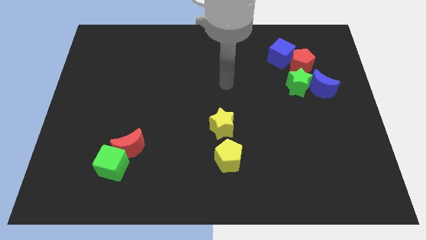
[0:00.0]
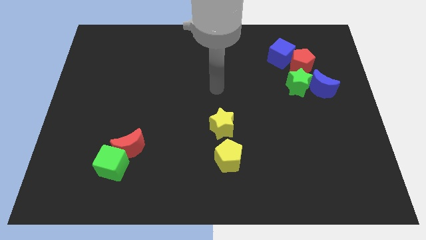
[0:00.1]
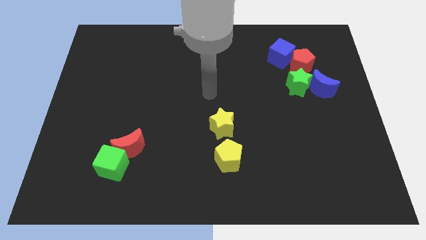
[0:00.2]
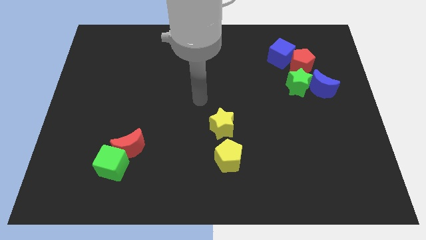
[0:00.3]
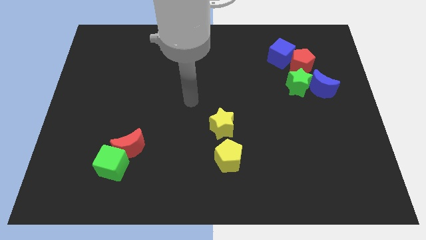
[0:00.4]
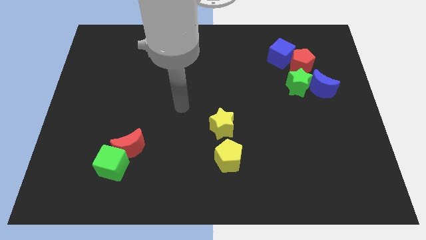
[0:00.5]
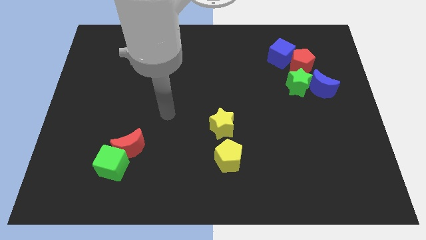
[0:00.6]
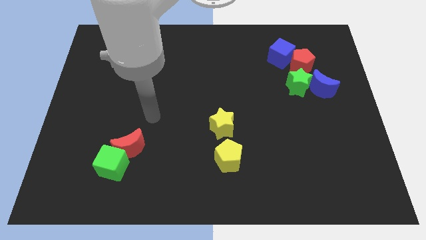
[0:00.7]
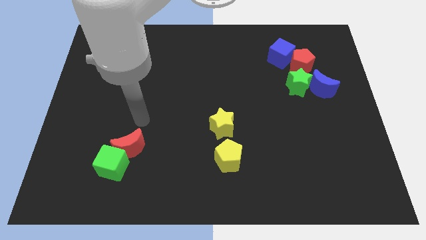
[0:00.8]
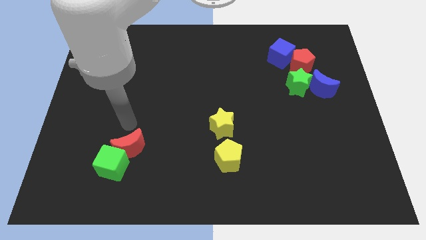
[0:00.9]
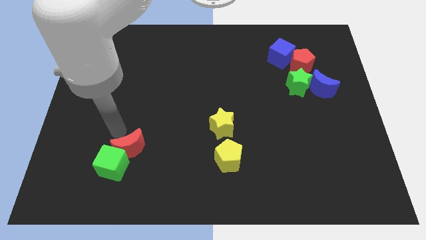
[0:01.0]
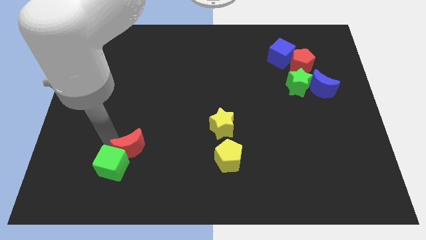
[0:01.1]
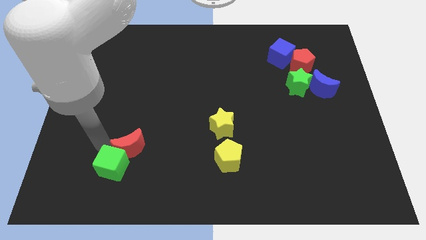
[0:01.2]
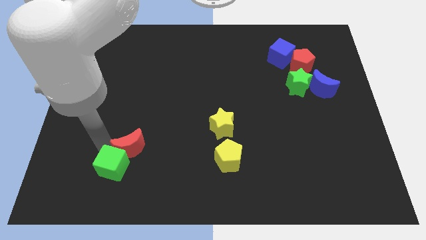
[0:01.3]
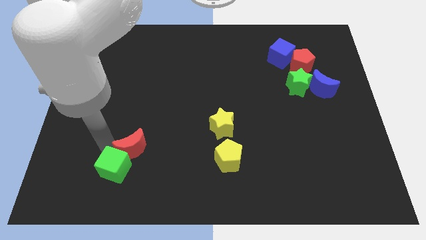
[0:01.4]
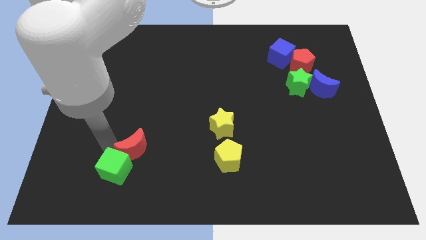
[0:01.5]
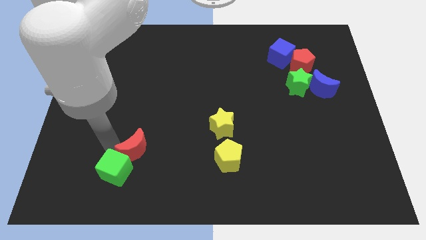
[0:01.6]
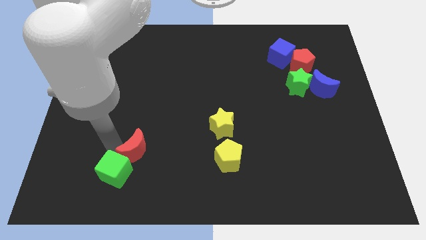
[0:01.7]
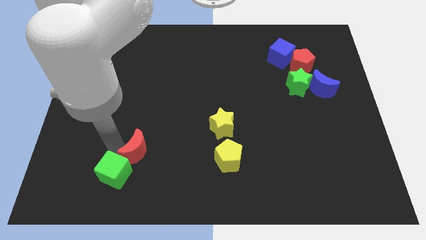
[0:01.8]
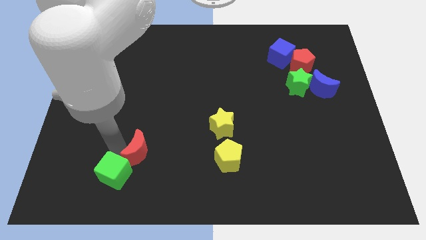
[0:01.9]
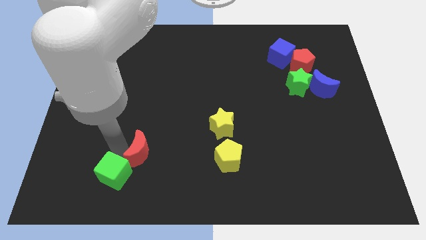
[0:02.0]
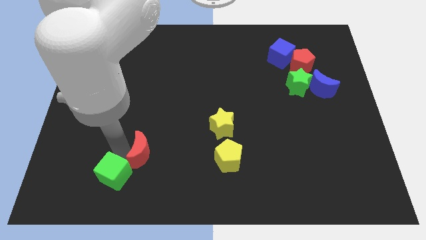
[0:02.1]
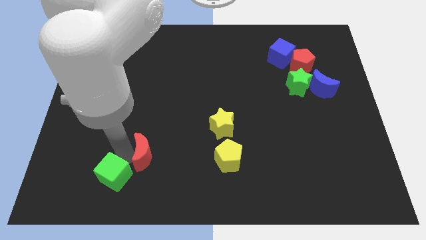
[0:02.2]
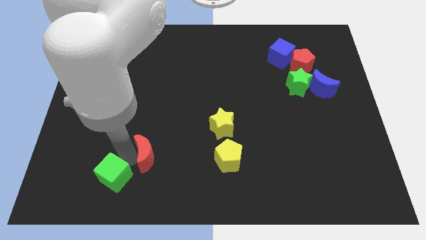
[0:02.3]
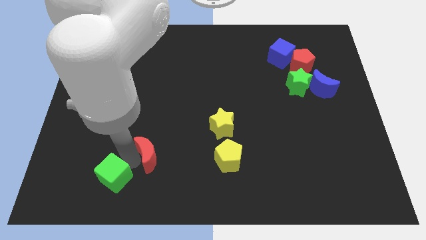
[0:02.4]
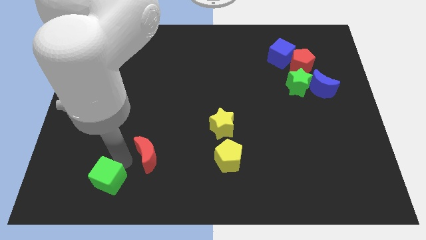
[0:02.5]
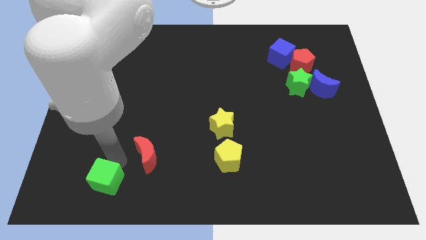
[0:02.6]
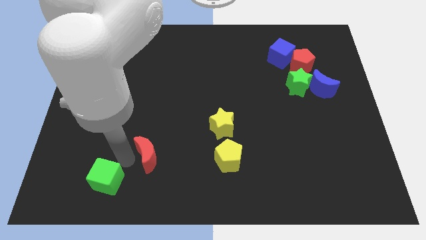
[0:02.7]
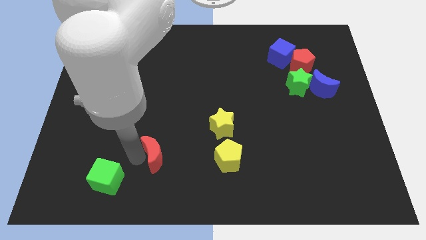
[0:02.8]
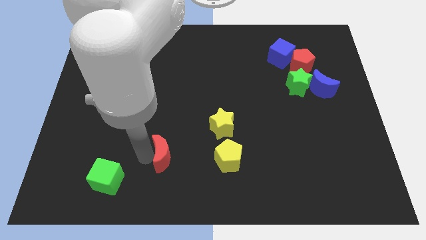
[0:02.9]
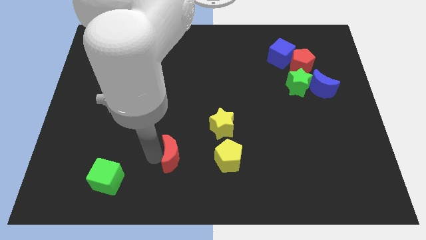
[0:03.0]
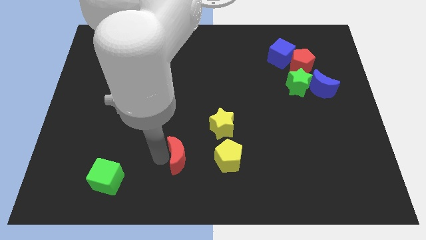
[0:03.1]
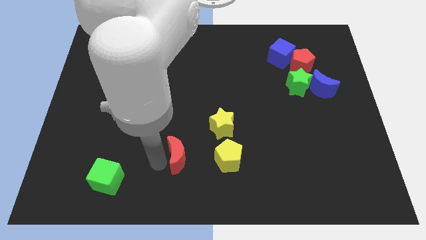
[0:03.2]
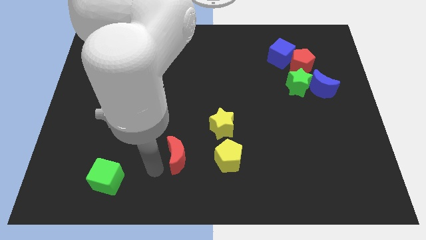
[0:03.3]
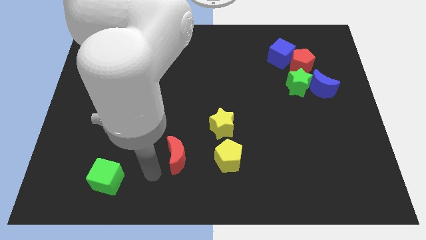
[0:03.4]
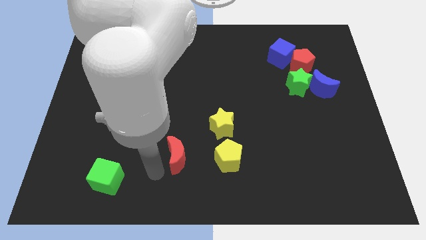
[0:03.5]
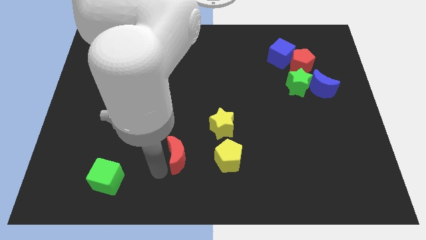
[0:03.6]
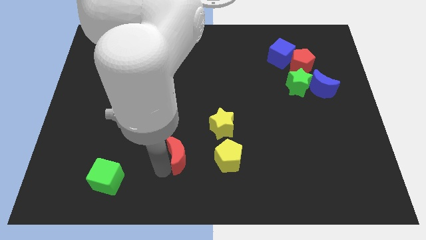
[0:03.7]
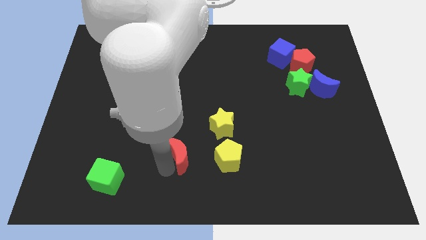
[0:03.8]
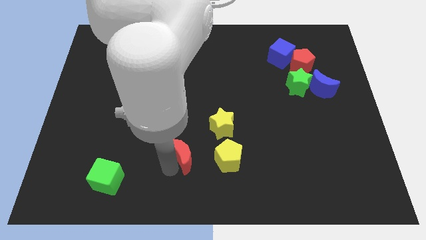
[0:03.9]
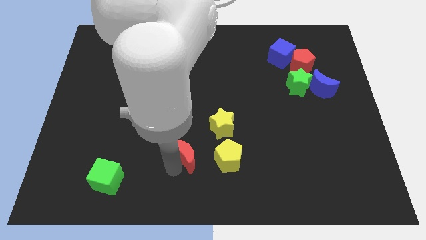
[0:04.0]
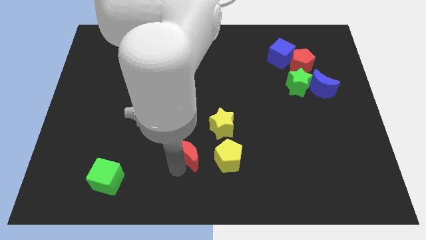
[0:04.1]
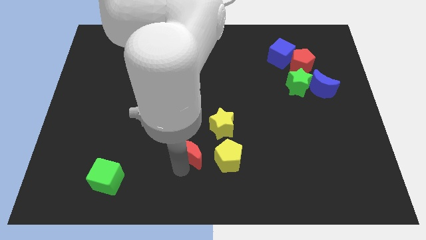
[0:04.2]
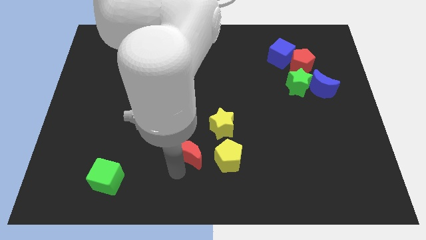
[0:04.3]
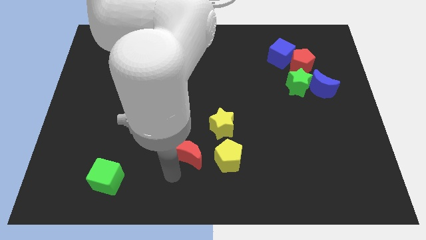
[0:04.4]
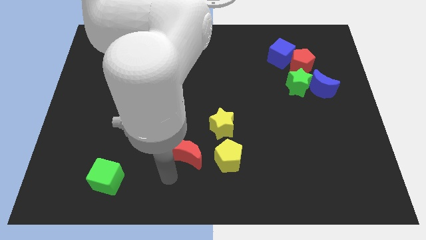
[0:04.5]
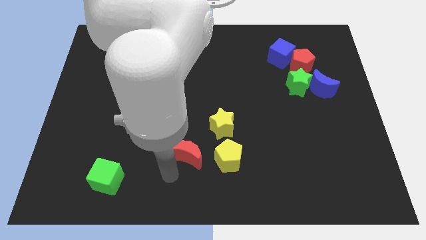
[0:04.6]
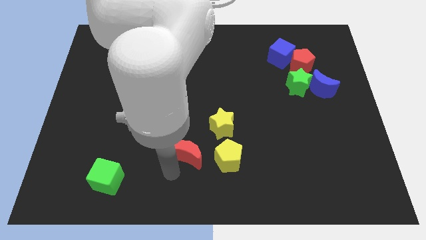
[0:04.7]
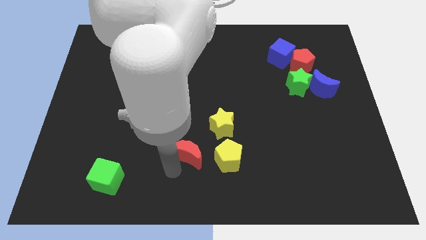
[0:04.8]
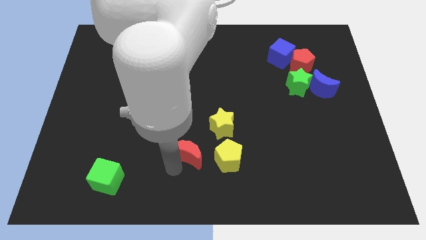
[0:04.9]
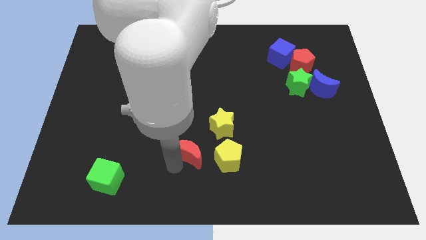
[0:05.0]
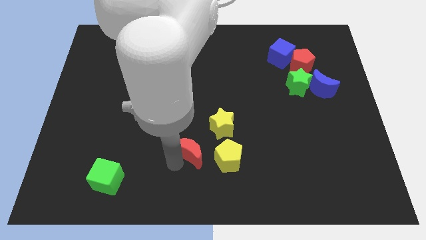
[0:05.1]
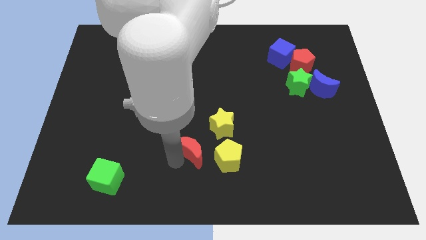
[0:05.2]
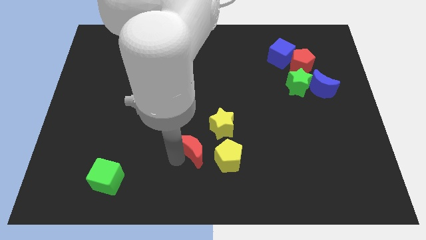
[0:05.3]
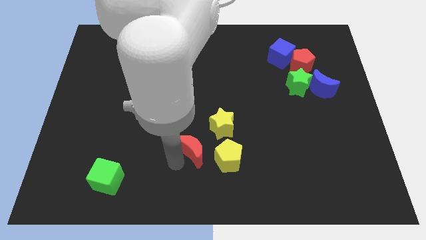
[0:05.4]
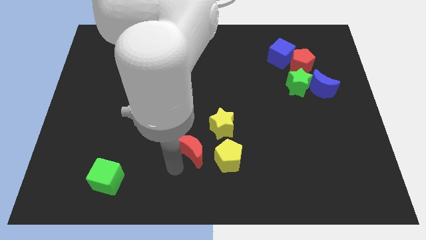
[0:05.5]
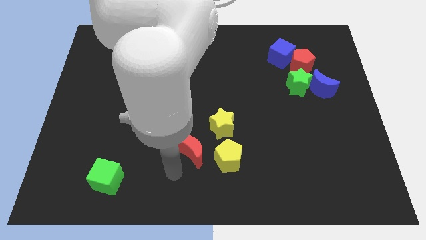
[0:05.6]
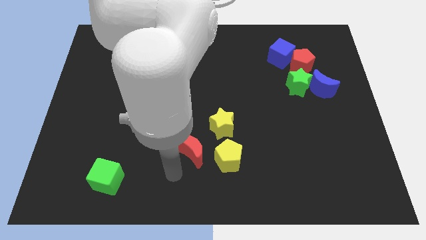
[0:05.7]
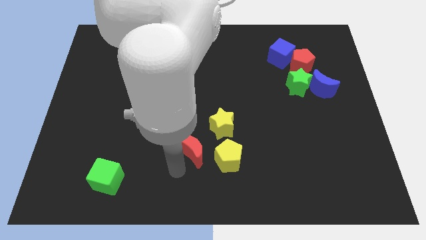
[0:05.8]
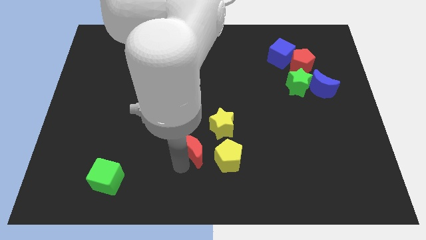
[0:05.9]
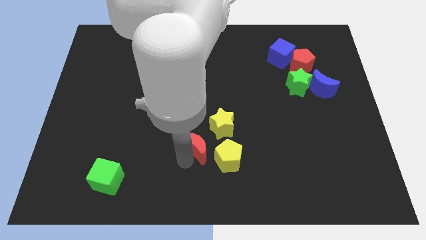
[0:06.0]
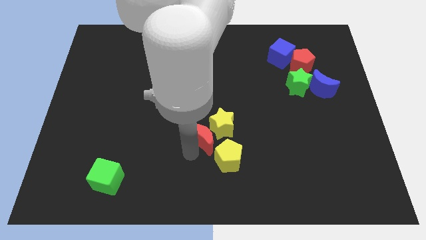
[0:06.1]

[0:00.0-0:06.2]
push the red moon next to the yellow star

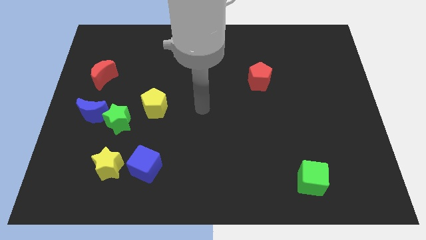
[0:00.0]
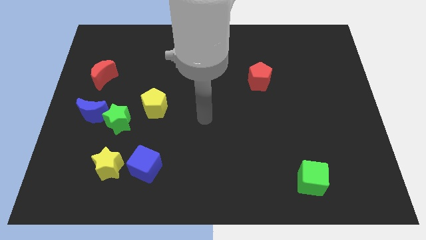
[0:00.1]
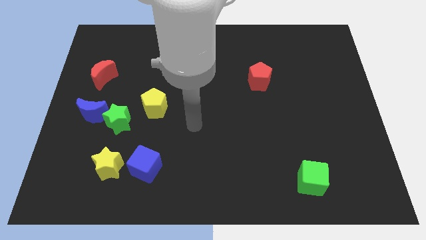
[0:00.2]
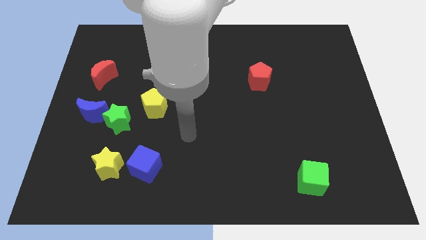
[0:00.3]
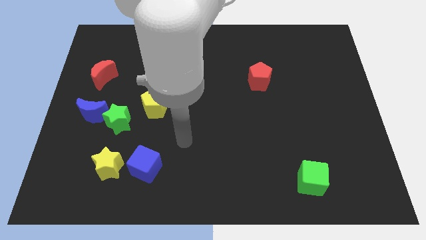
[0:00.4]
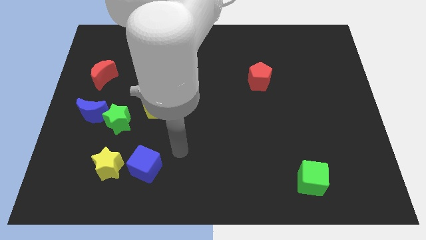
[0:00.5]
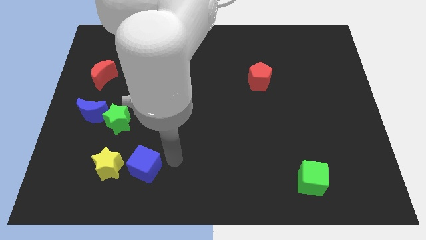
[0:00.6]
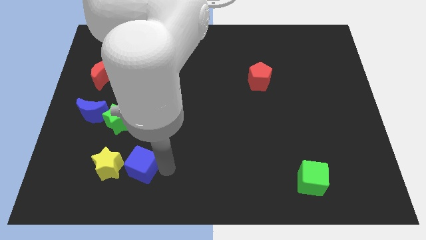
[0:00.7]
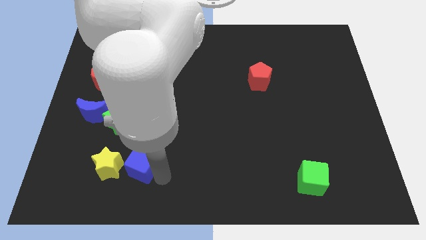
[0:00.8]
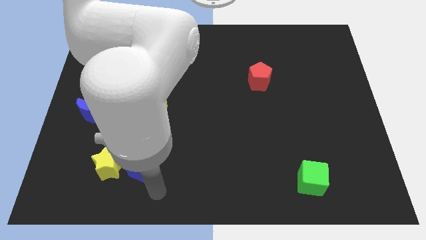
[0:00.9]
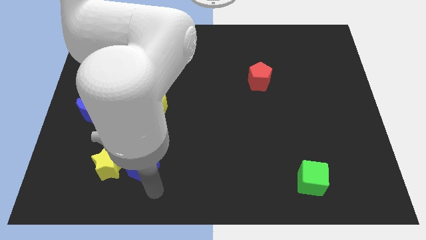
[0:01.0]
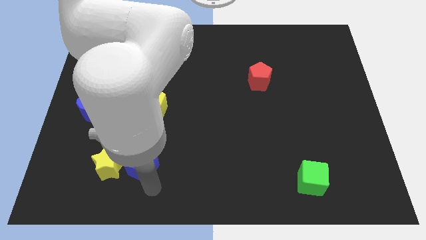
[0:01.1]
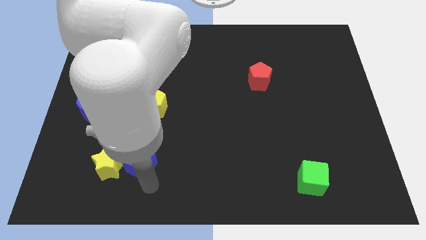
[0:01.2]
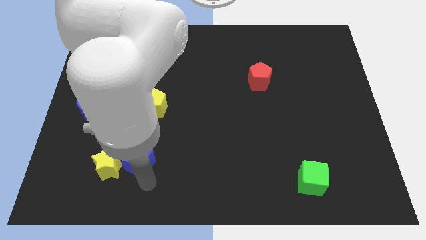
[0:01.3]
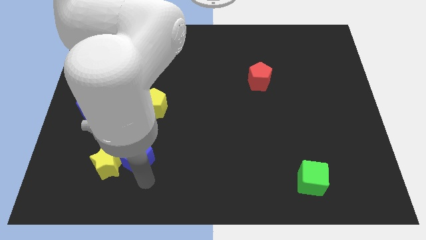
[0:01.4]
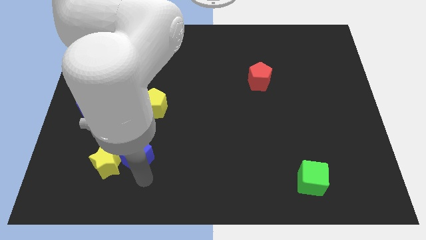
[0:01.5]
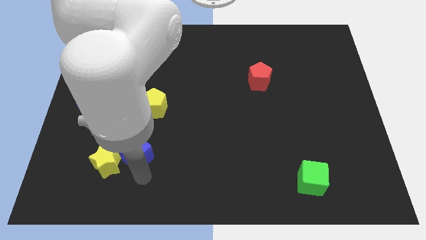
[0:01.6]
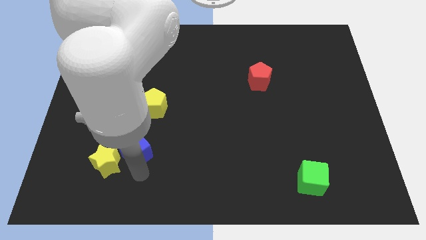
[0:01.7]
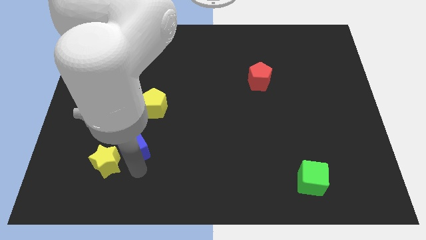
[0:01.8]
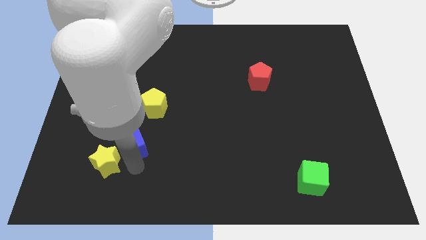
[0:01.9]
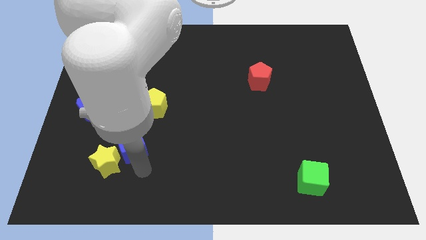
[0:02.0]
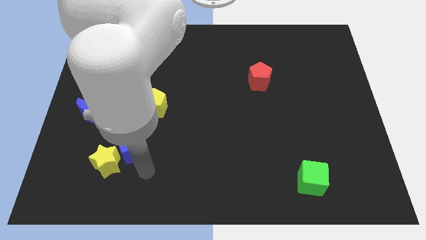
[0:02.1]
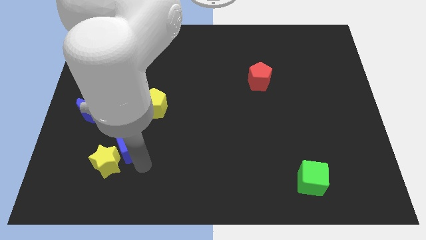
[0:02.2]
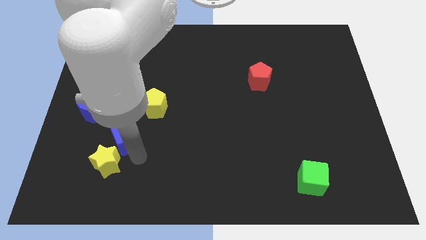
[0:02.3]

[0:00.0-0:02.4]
push the blue cube to the green star
